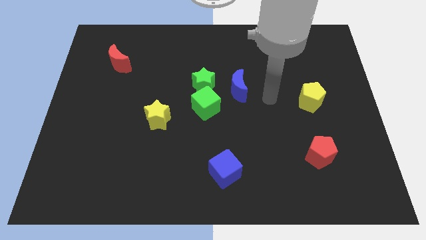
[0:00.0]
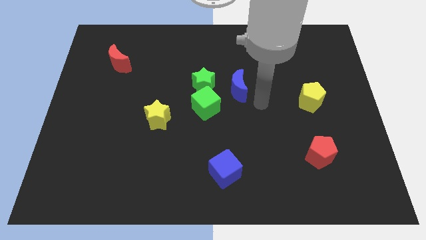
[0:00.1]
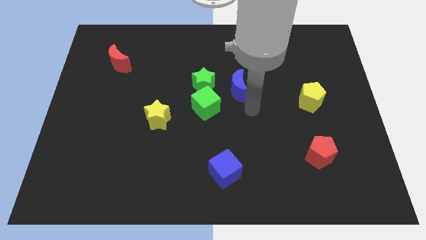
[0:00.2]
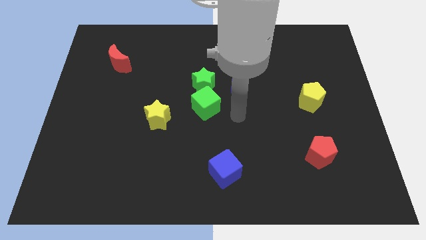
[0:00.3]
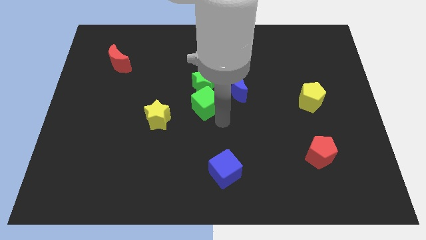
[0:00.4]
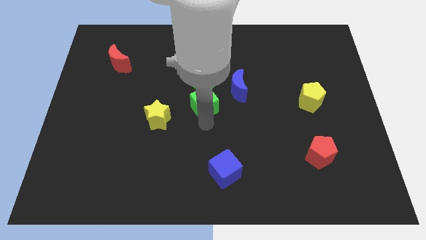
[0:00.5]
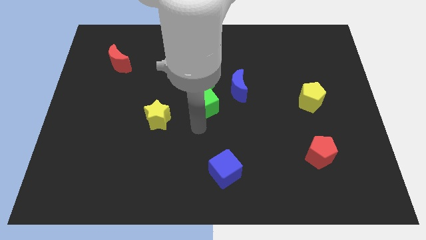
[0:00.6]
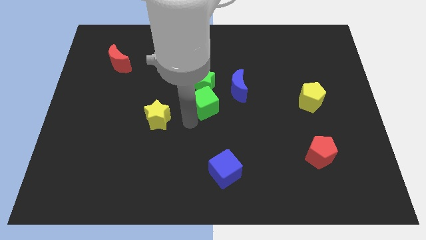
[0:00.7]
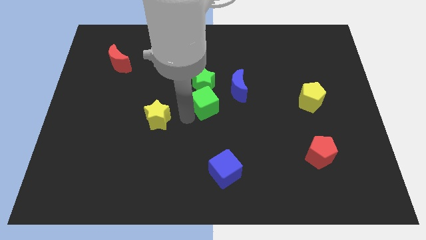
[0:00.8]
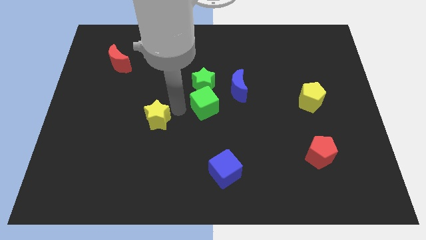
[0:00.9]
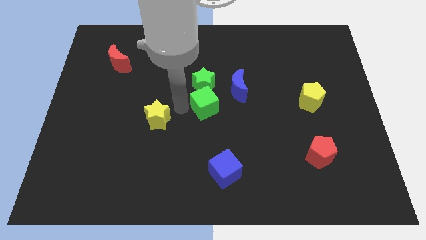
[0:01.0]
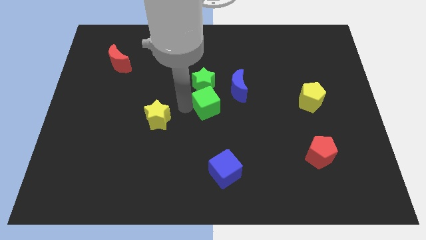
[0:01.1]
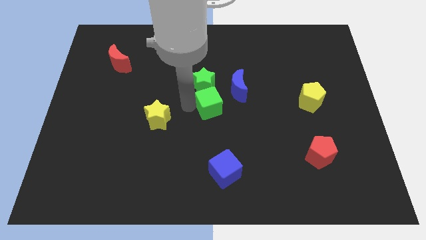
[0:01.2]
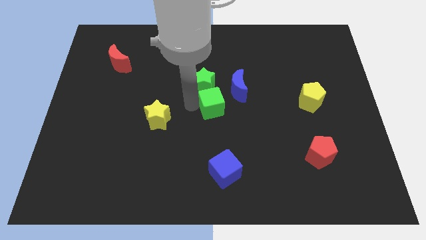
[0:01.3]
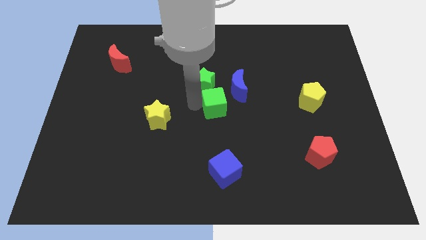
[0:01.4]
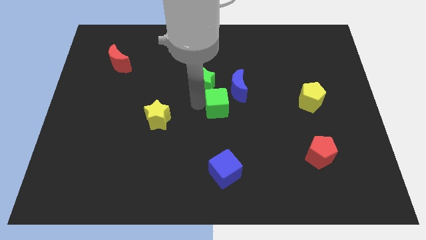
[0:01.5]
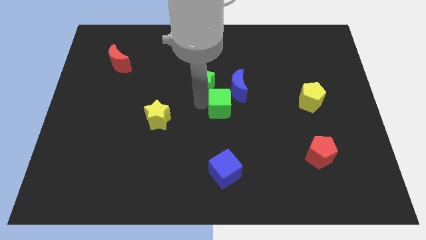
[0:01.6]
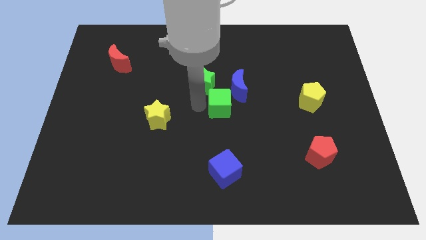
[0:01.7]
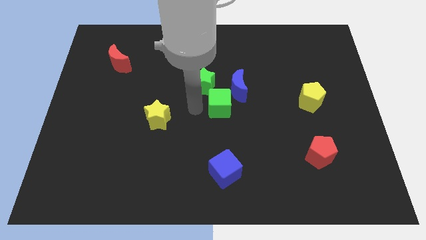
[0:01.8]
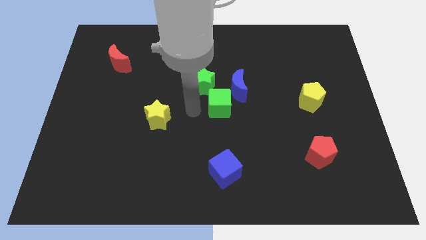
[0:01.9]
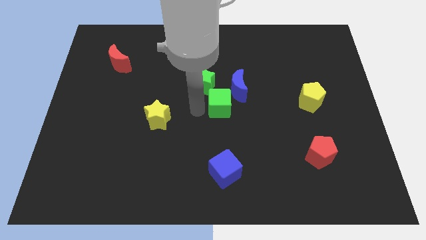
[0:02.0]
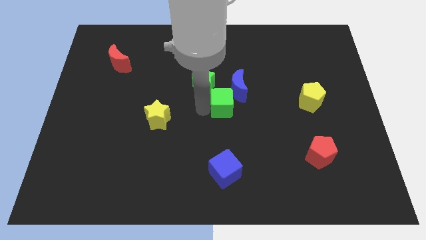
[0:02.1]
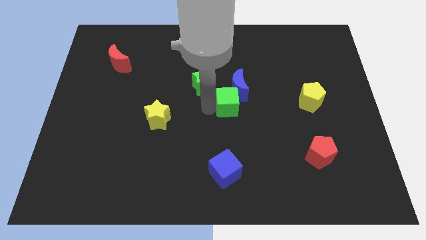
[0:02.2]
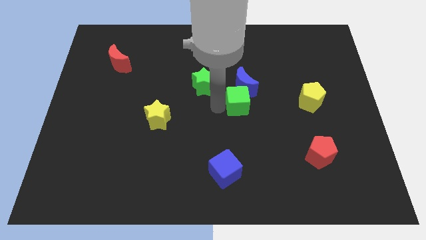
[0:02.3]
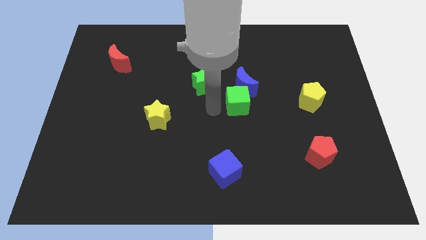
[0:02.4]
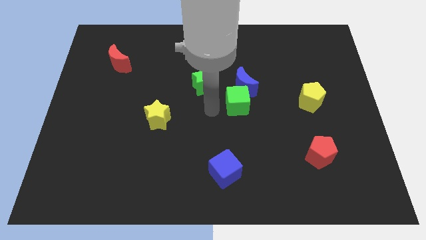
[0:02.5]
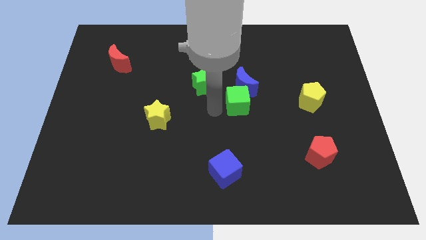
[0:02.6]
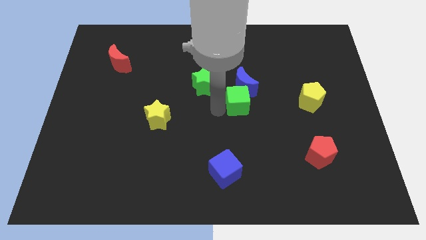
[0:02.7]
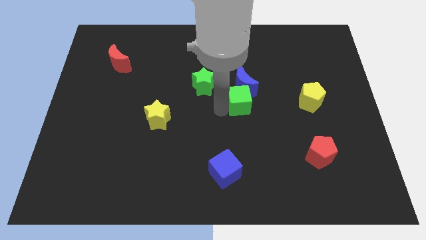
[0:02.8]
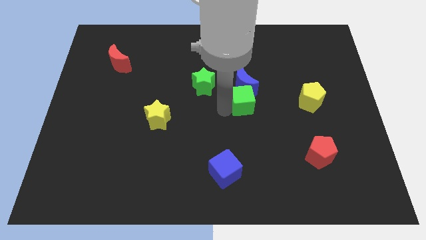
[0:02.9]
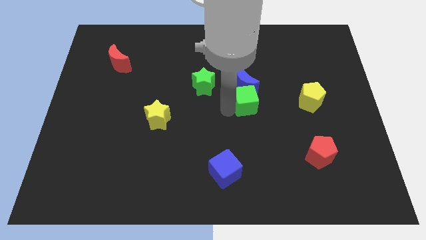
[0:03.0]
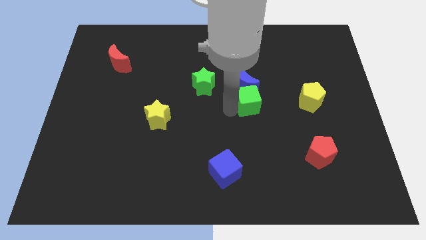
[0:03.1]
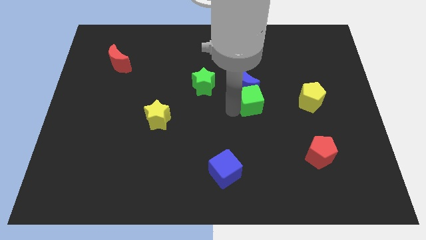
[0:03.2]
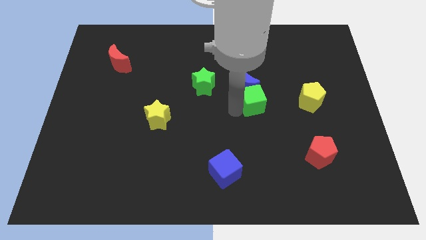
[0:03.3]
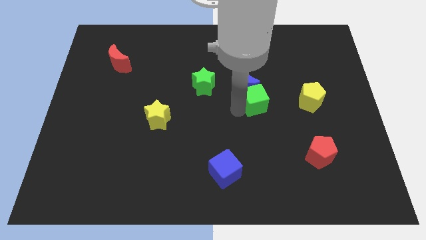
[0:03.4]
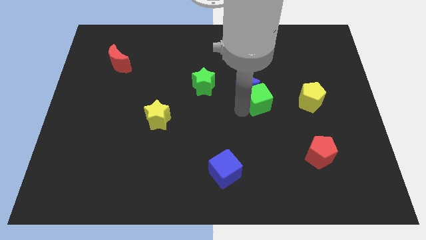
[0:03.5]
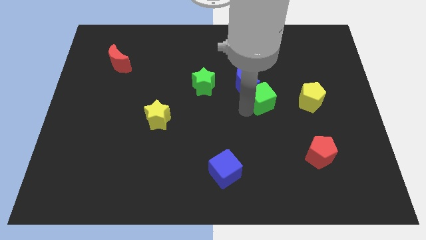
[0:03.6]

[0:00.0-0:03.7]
slide the green cube right of the blue moon

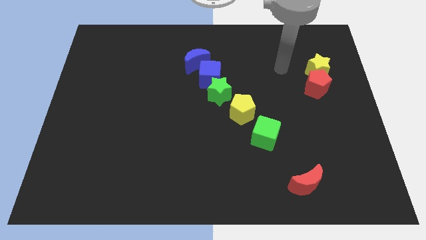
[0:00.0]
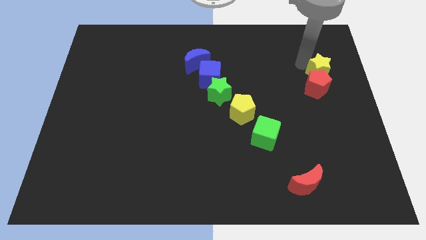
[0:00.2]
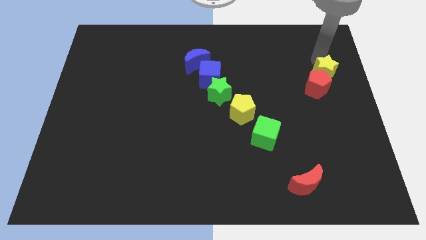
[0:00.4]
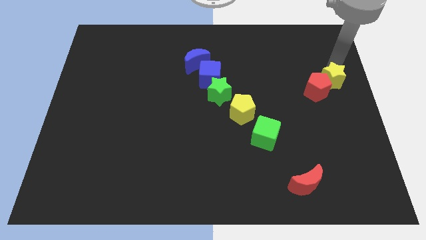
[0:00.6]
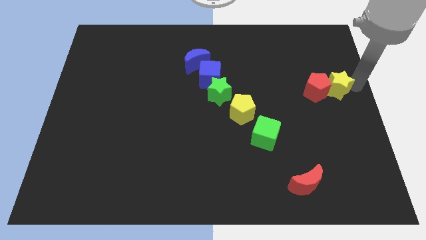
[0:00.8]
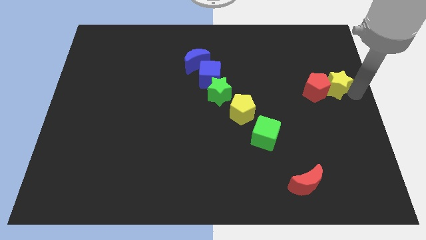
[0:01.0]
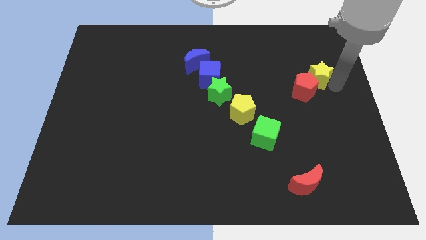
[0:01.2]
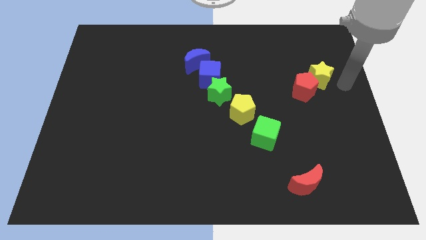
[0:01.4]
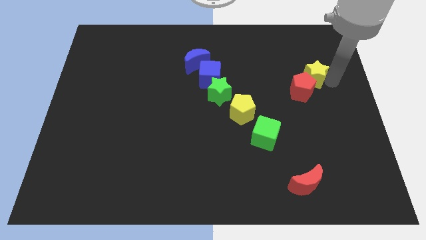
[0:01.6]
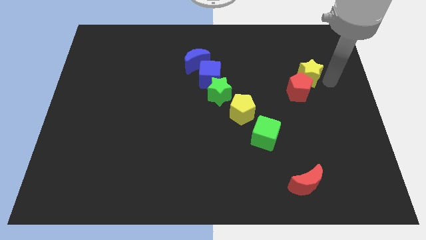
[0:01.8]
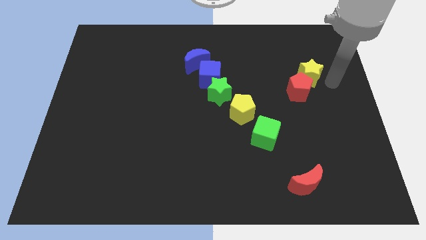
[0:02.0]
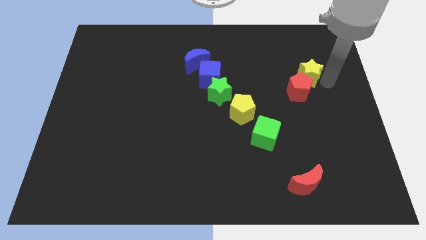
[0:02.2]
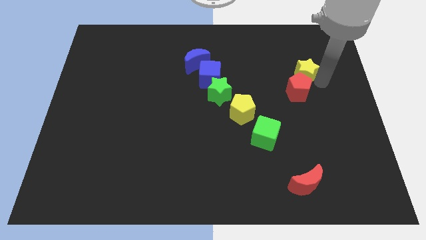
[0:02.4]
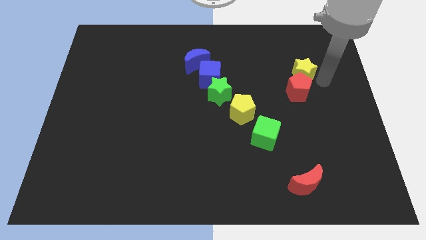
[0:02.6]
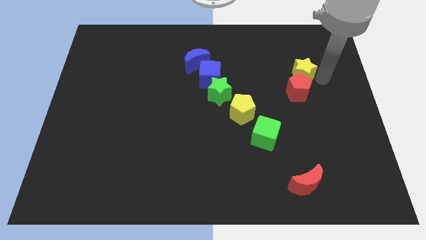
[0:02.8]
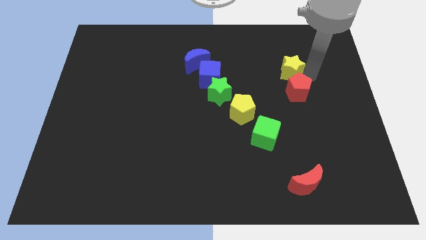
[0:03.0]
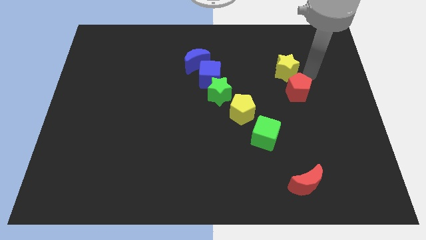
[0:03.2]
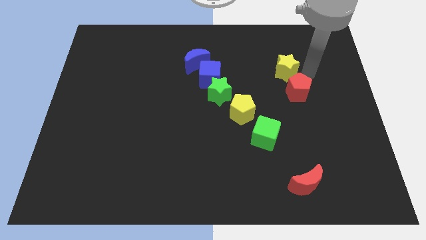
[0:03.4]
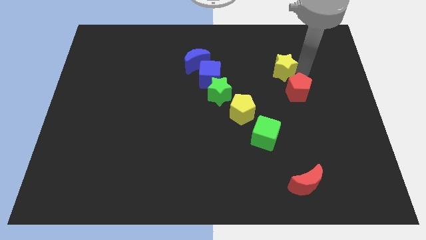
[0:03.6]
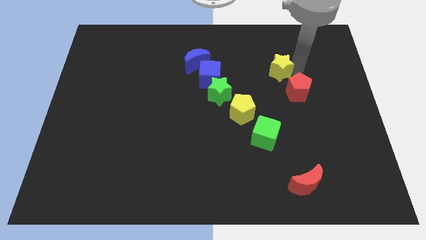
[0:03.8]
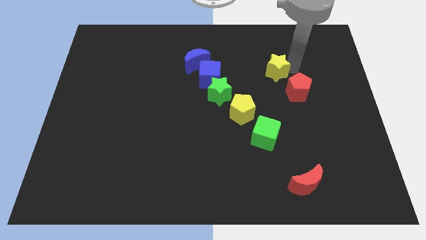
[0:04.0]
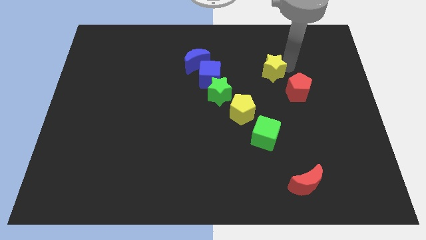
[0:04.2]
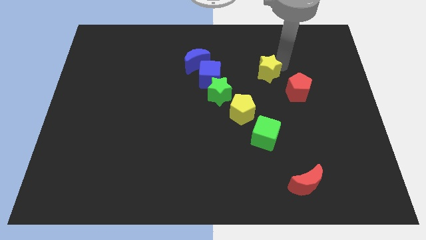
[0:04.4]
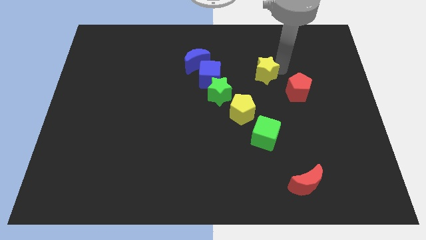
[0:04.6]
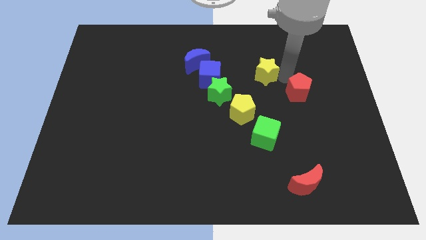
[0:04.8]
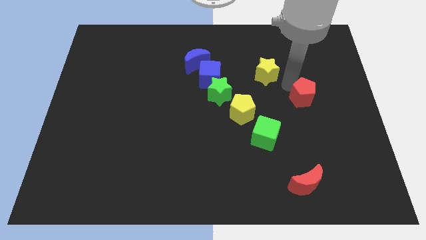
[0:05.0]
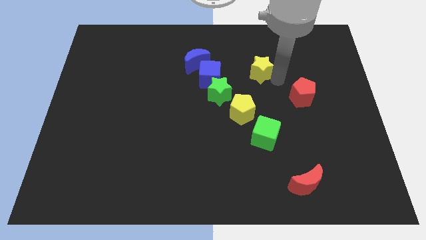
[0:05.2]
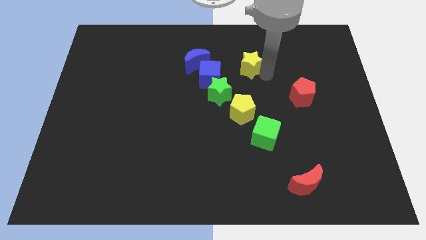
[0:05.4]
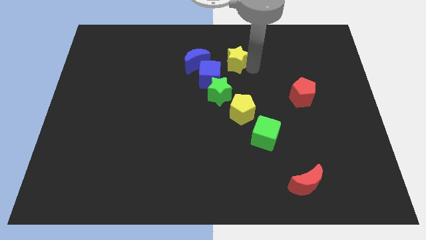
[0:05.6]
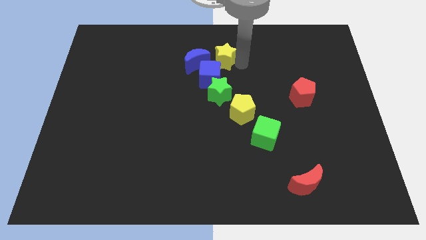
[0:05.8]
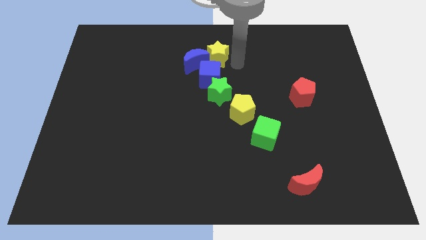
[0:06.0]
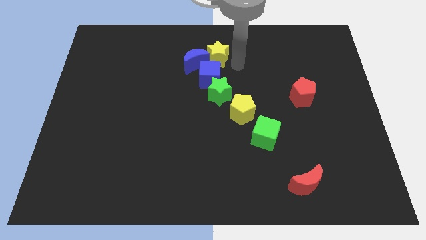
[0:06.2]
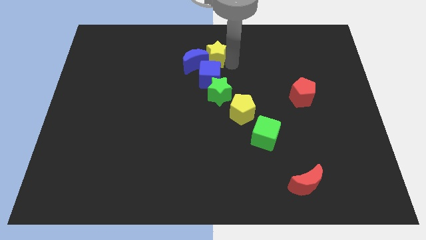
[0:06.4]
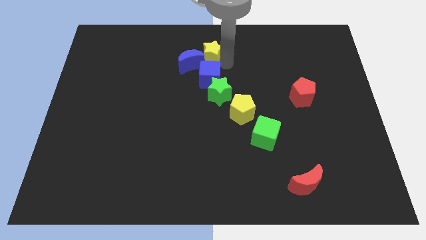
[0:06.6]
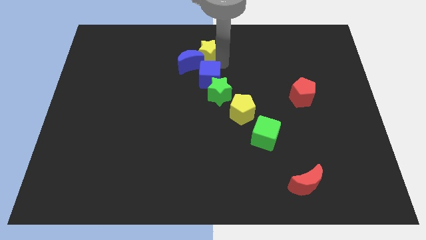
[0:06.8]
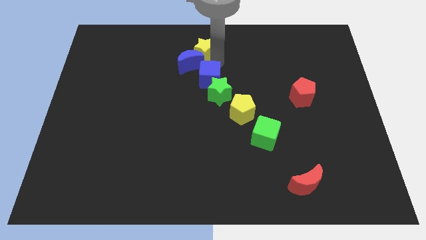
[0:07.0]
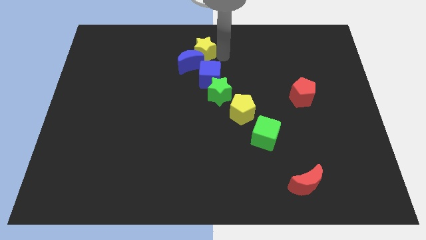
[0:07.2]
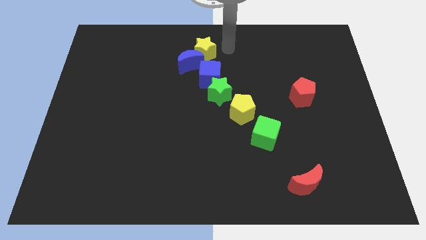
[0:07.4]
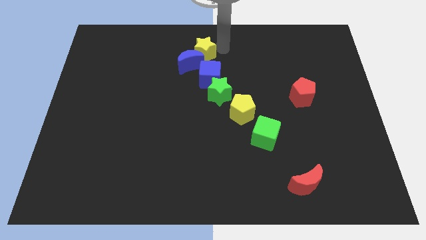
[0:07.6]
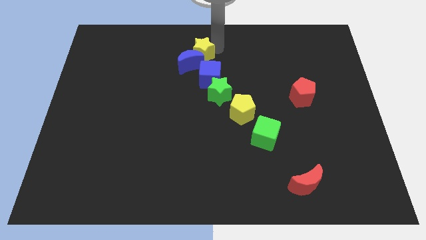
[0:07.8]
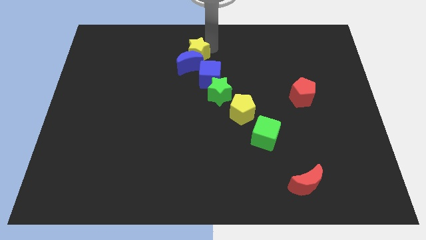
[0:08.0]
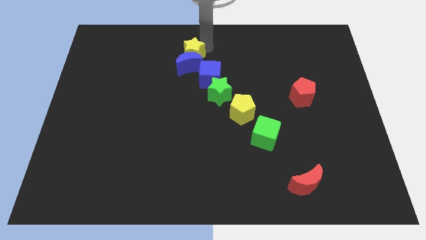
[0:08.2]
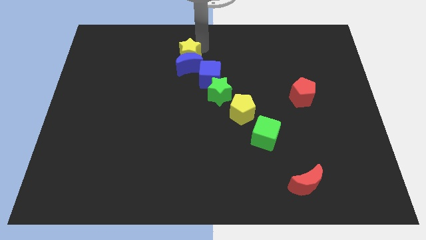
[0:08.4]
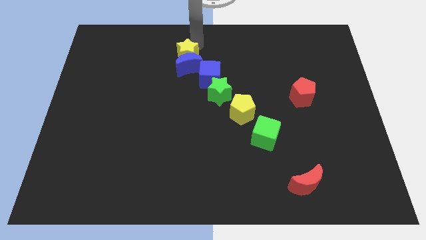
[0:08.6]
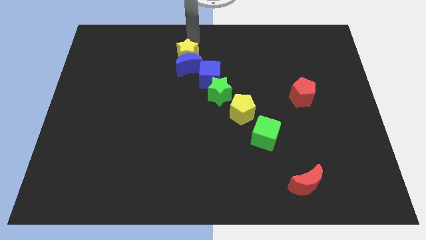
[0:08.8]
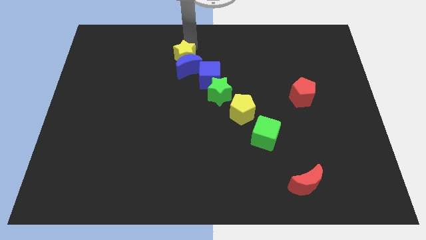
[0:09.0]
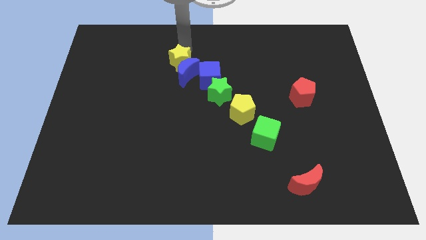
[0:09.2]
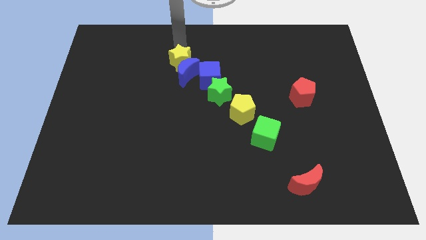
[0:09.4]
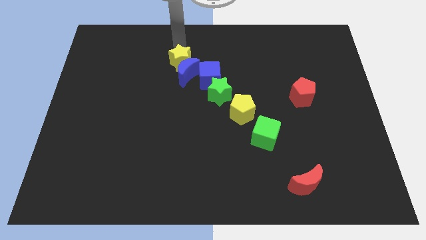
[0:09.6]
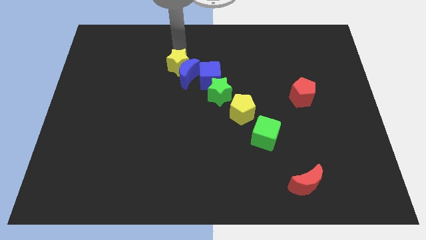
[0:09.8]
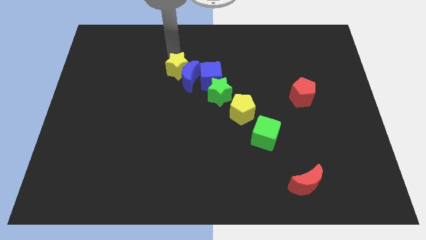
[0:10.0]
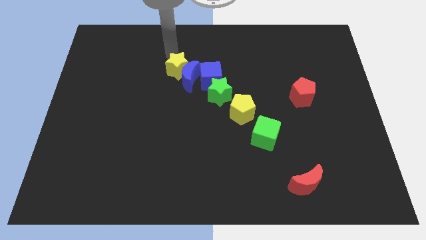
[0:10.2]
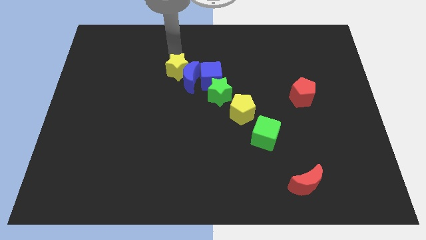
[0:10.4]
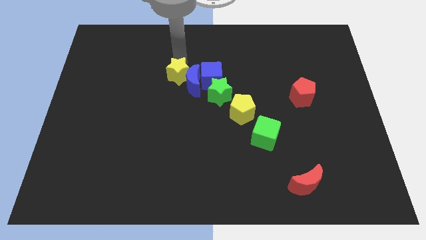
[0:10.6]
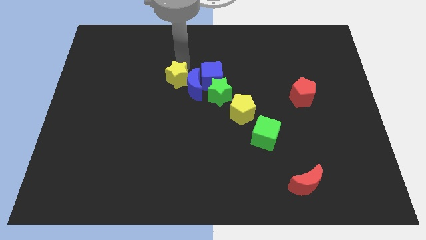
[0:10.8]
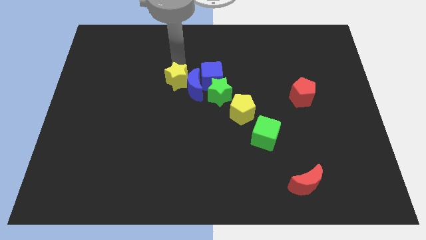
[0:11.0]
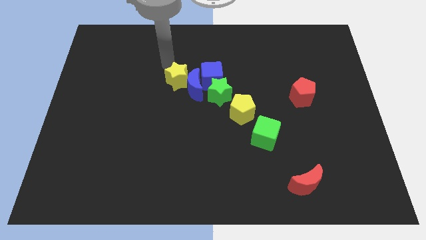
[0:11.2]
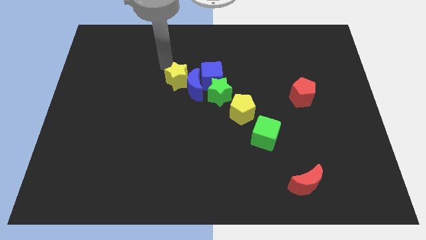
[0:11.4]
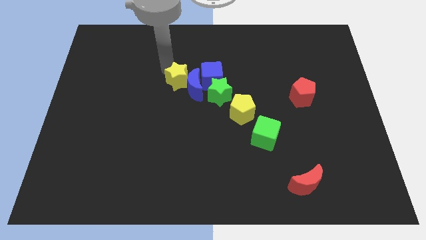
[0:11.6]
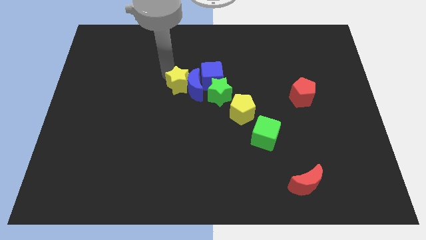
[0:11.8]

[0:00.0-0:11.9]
put the yellow star to the bottom left side of the blue cube
